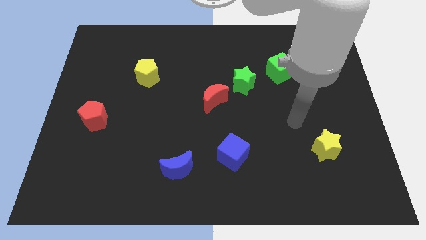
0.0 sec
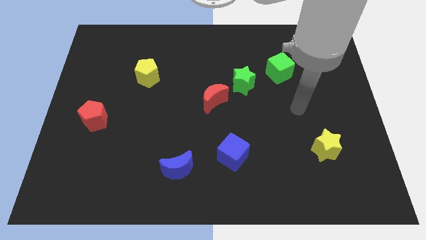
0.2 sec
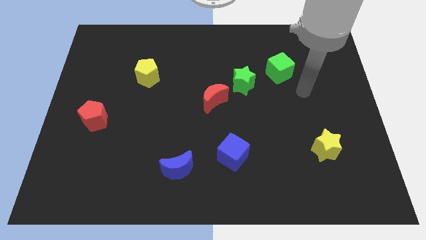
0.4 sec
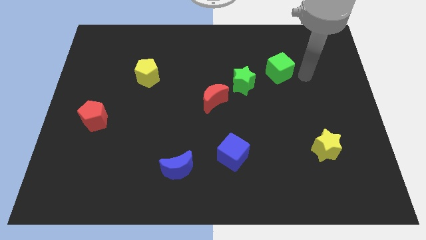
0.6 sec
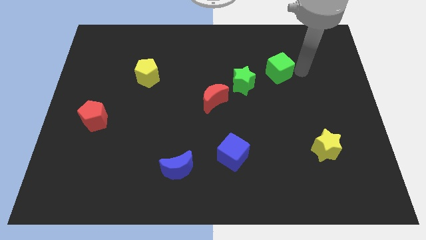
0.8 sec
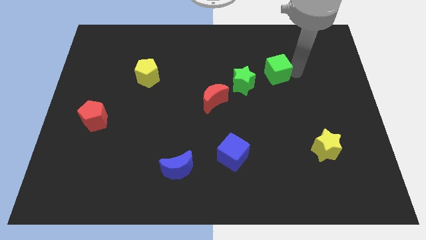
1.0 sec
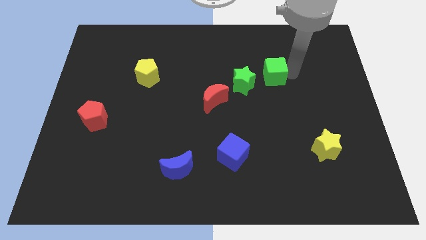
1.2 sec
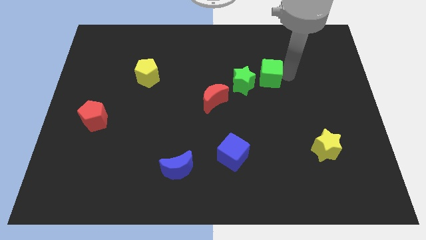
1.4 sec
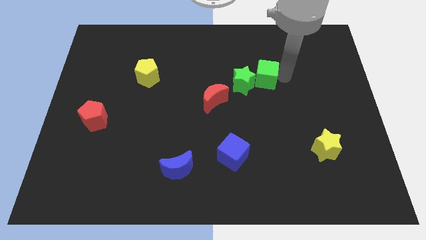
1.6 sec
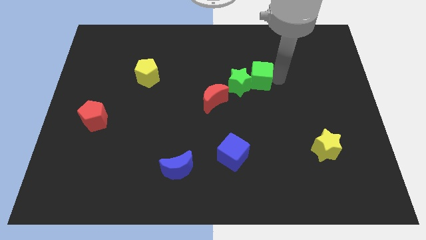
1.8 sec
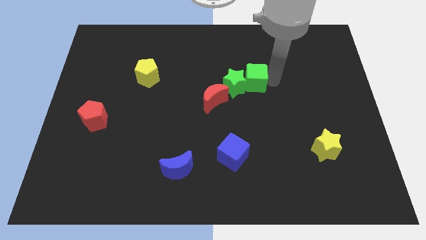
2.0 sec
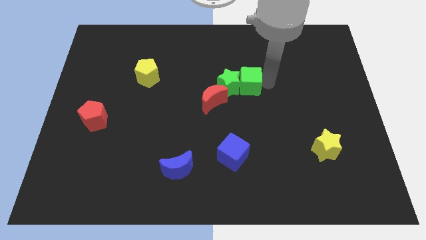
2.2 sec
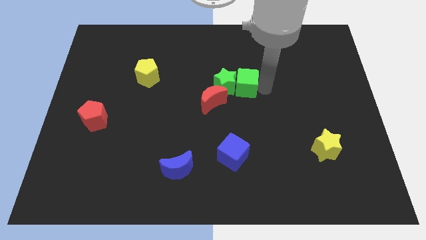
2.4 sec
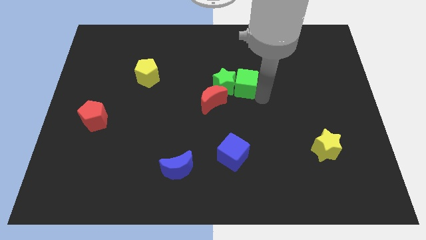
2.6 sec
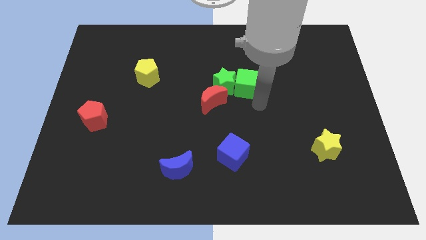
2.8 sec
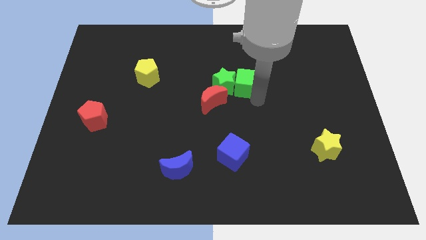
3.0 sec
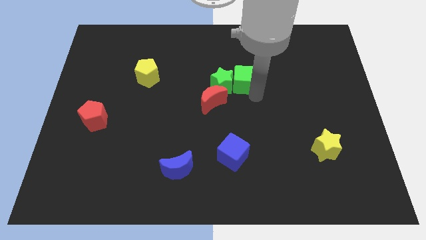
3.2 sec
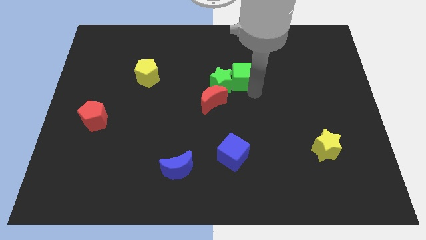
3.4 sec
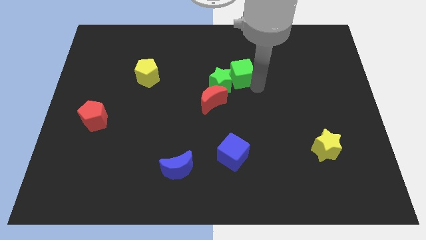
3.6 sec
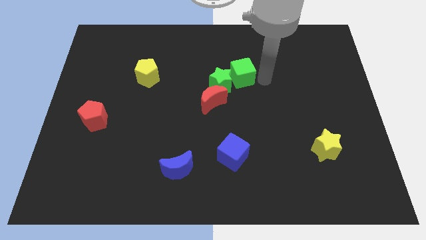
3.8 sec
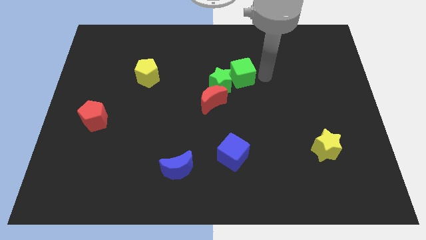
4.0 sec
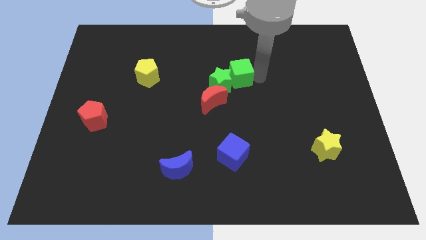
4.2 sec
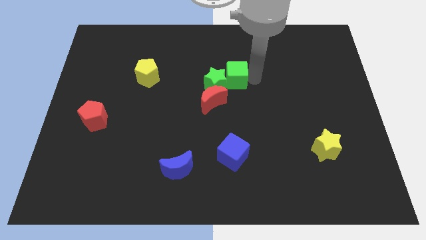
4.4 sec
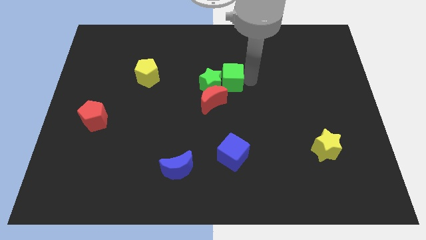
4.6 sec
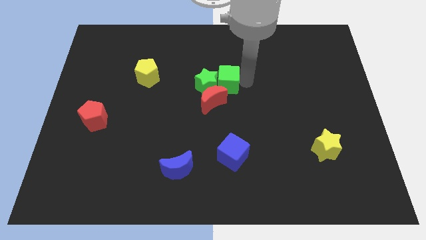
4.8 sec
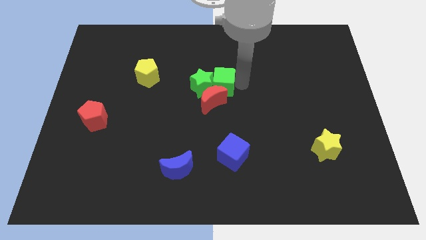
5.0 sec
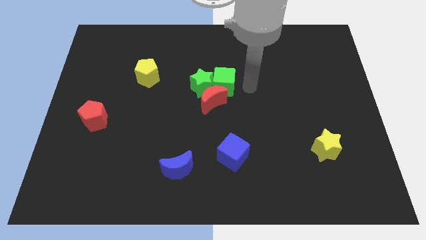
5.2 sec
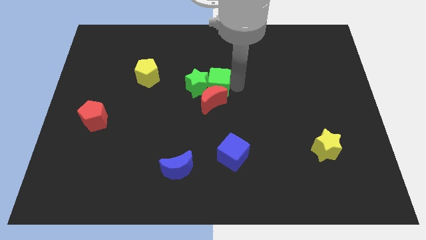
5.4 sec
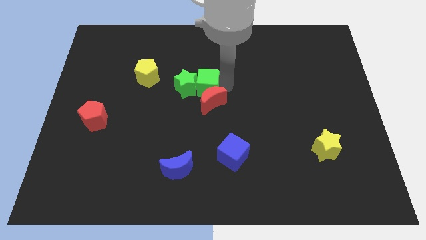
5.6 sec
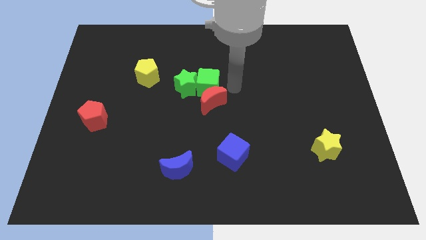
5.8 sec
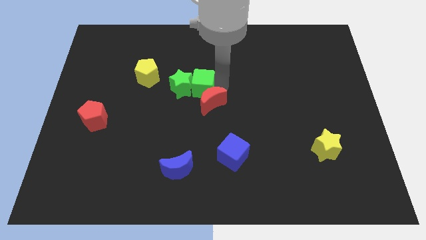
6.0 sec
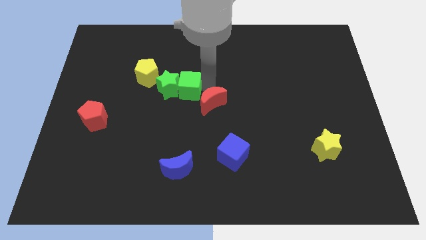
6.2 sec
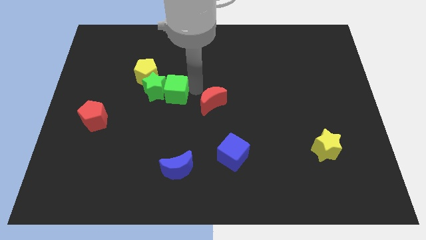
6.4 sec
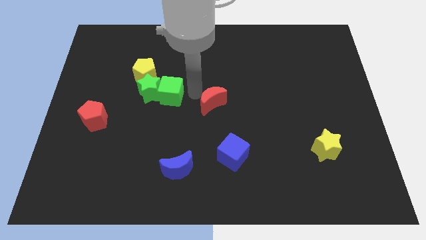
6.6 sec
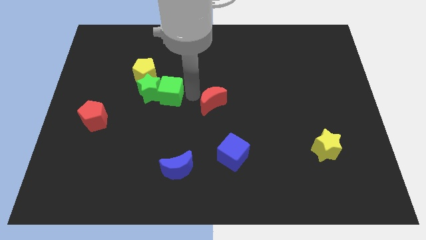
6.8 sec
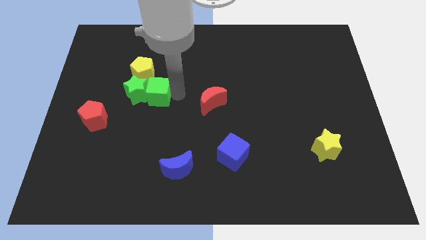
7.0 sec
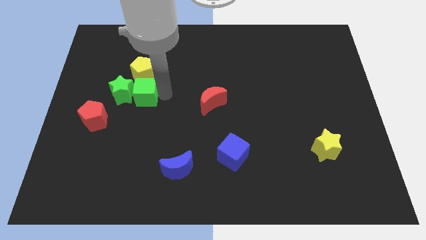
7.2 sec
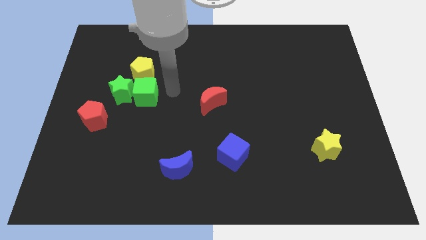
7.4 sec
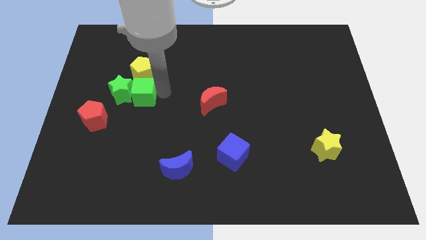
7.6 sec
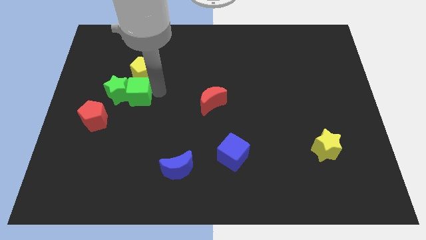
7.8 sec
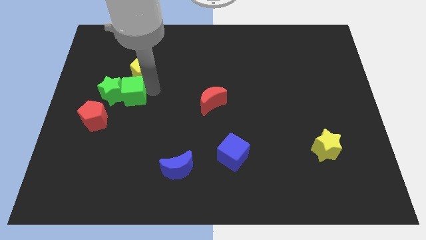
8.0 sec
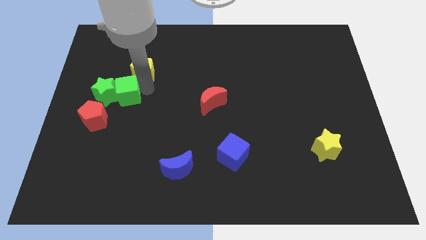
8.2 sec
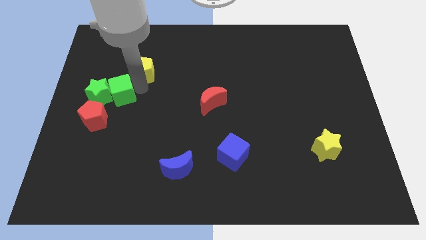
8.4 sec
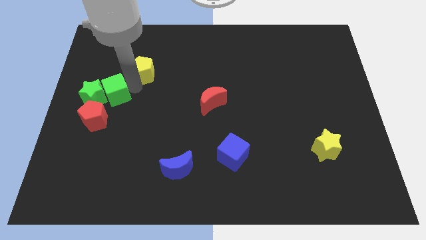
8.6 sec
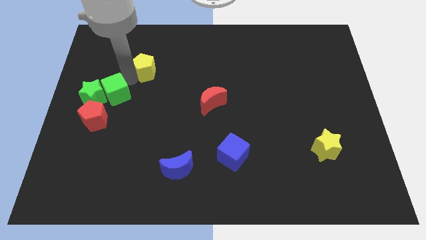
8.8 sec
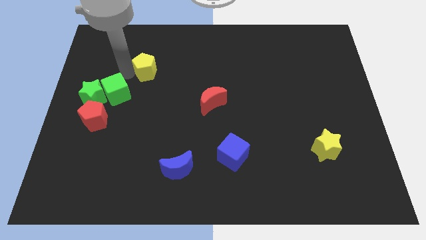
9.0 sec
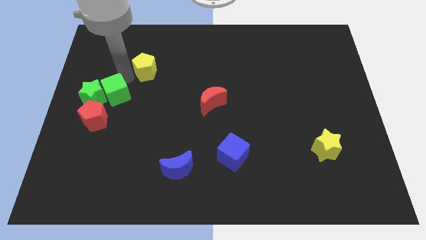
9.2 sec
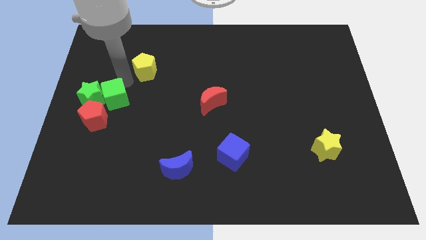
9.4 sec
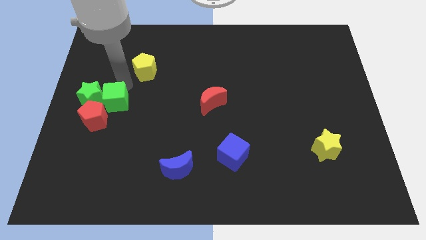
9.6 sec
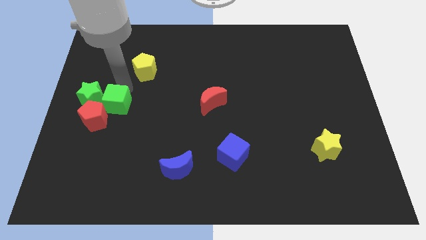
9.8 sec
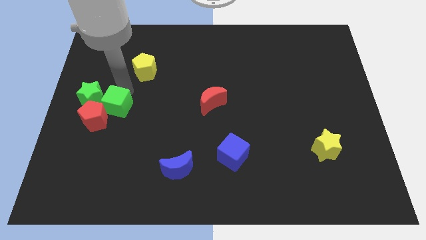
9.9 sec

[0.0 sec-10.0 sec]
push the green cube towards the red pentagon

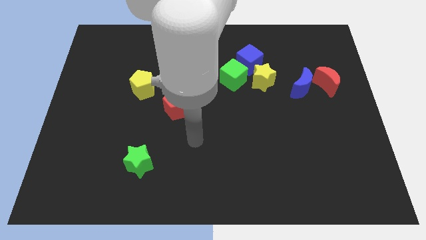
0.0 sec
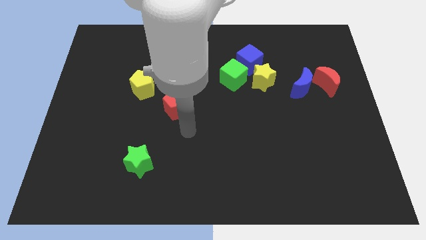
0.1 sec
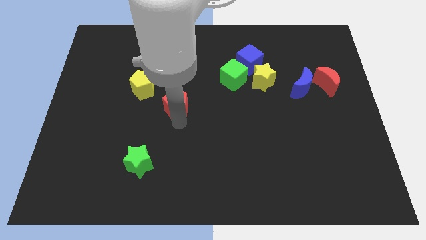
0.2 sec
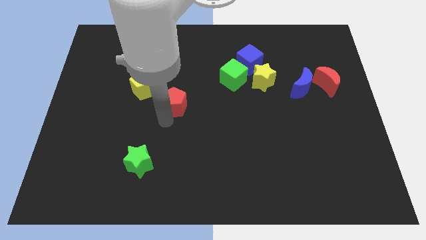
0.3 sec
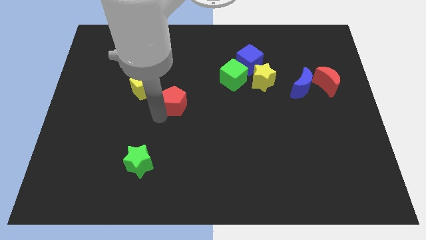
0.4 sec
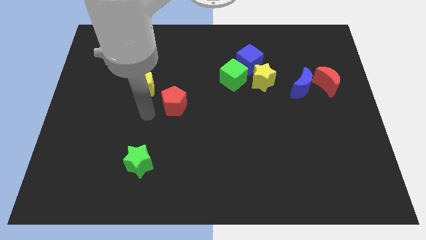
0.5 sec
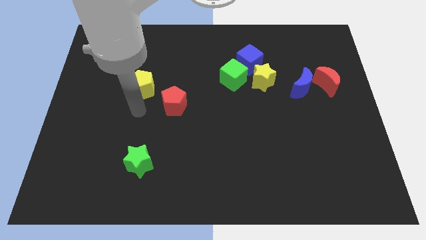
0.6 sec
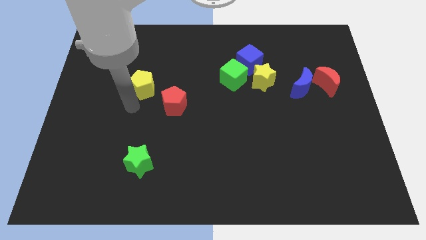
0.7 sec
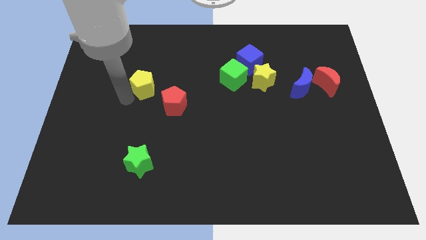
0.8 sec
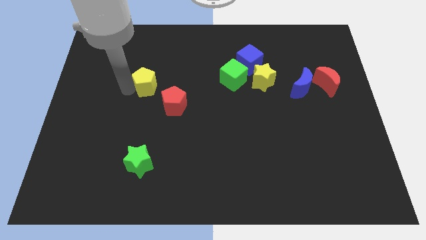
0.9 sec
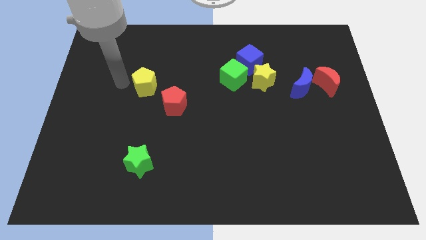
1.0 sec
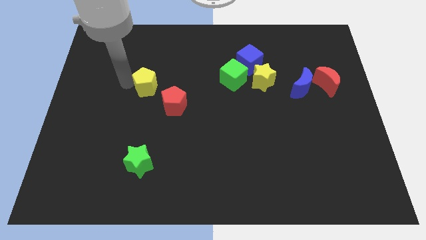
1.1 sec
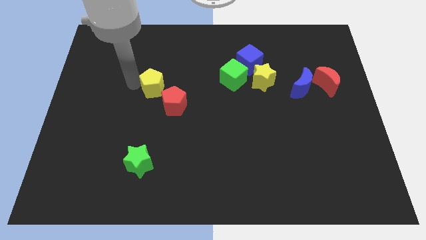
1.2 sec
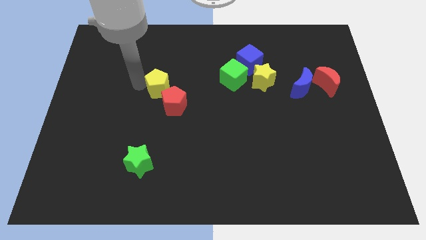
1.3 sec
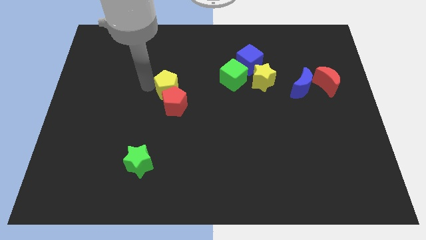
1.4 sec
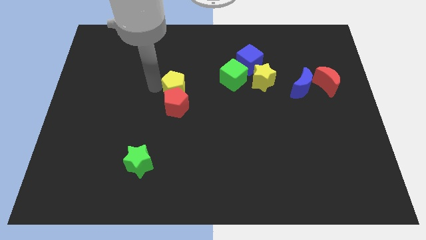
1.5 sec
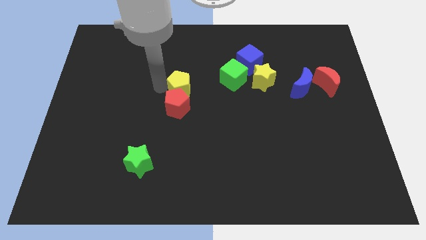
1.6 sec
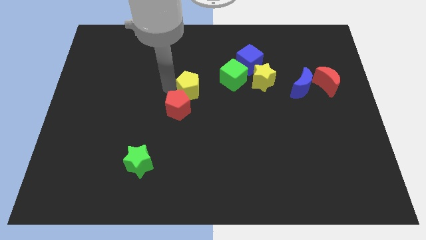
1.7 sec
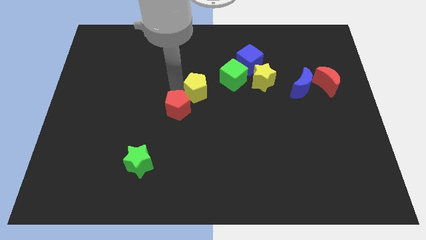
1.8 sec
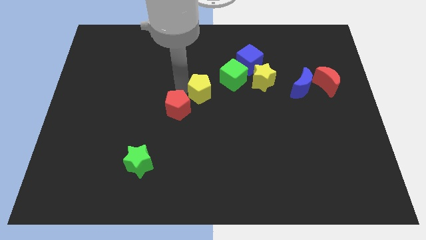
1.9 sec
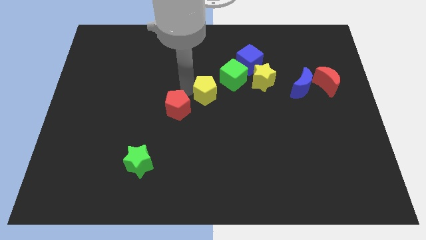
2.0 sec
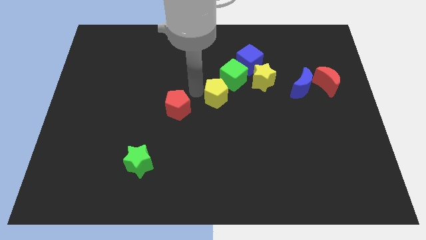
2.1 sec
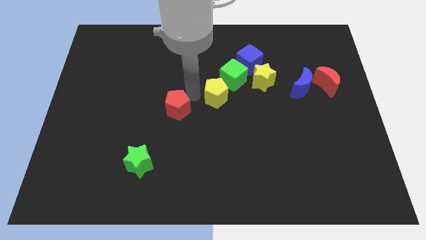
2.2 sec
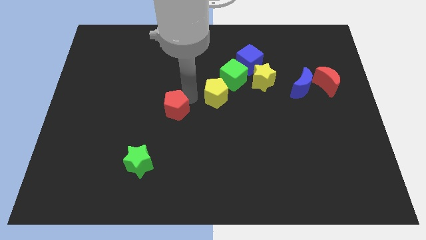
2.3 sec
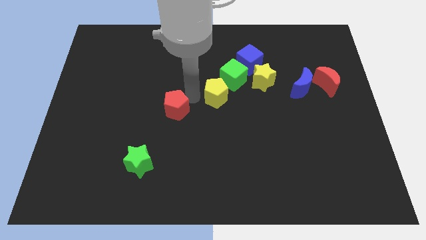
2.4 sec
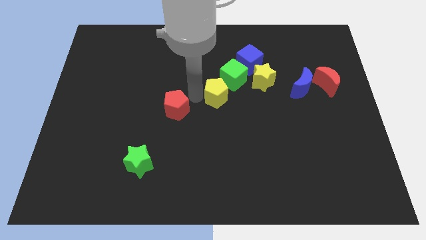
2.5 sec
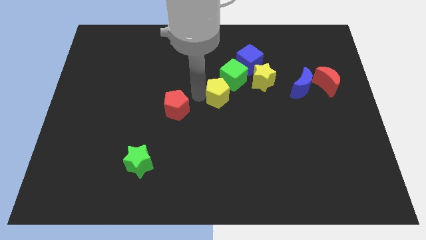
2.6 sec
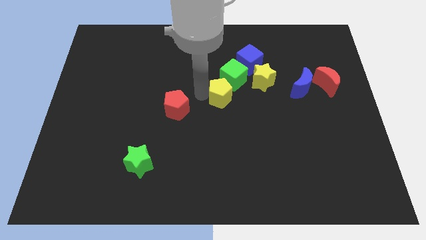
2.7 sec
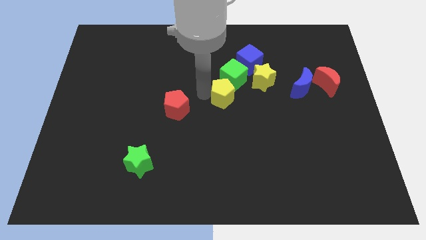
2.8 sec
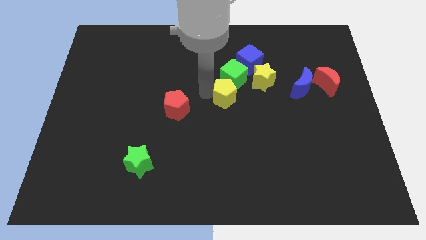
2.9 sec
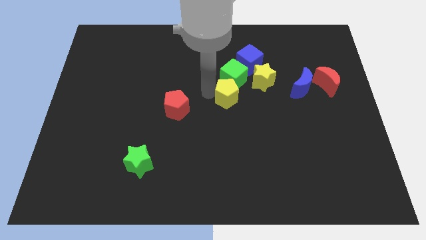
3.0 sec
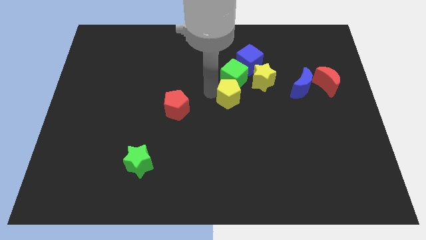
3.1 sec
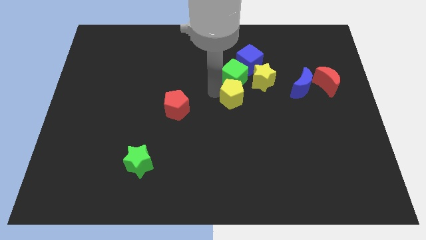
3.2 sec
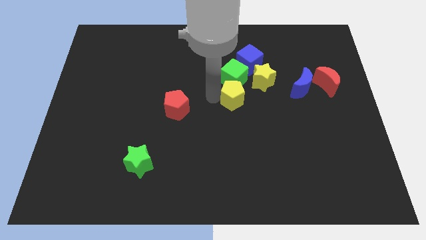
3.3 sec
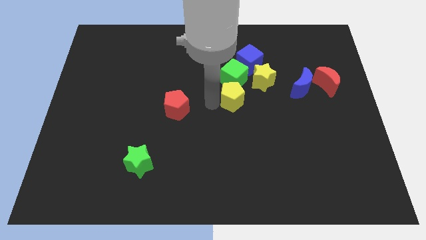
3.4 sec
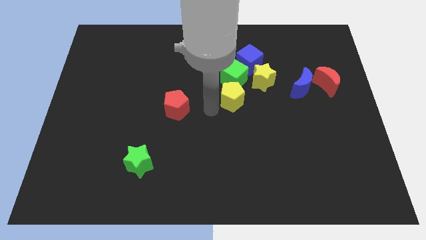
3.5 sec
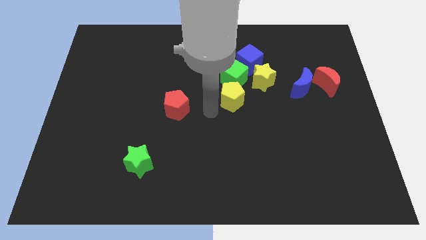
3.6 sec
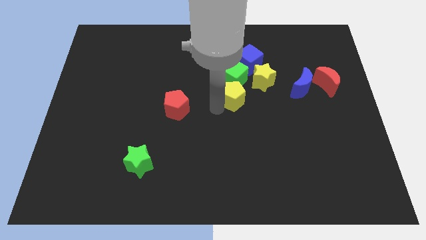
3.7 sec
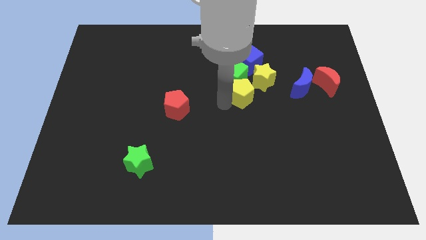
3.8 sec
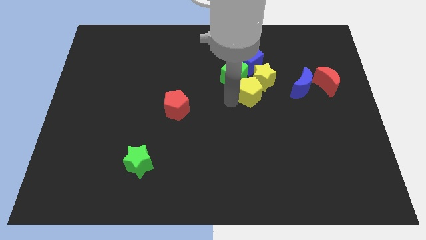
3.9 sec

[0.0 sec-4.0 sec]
push the yellow pentagon to the yellow star
